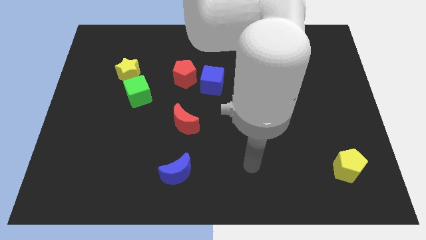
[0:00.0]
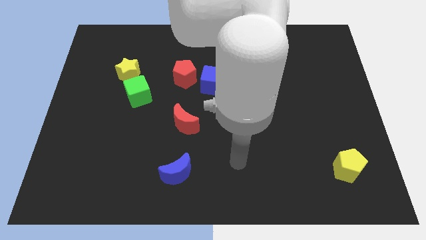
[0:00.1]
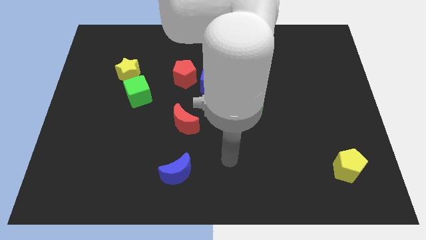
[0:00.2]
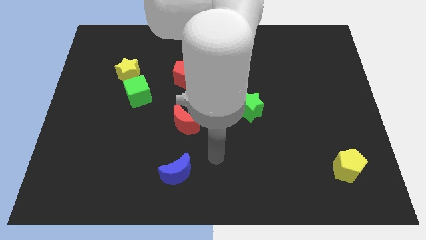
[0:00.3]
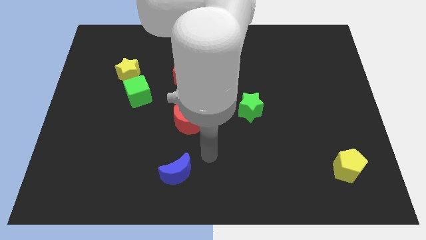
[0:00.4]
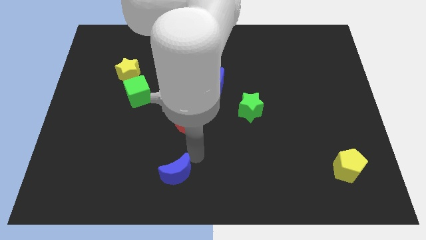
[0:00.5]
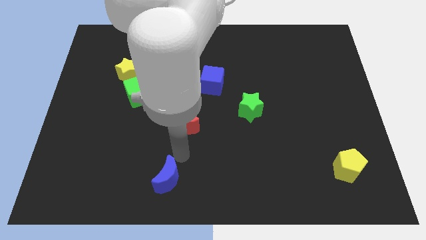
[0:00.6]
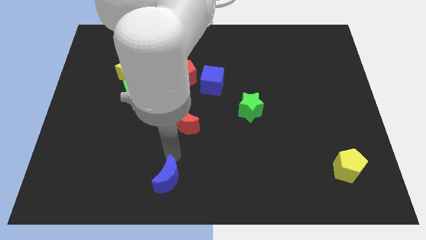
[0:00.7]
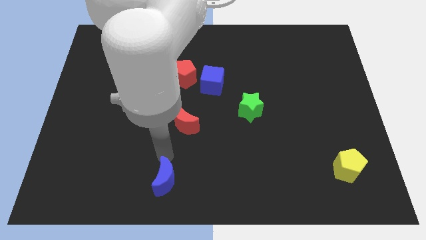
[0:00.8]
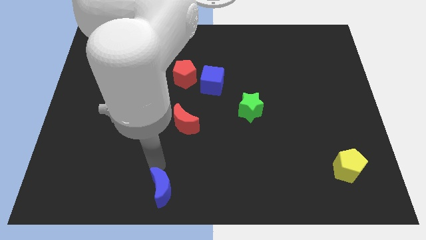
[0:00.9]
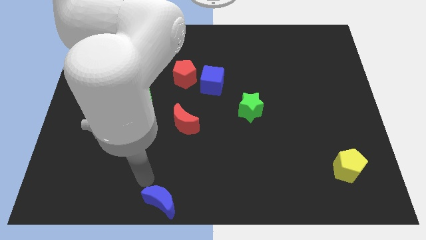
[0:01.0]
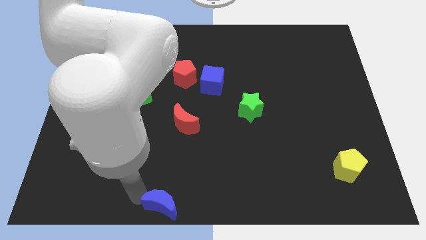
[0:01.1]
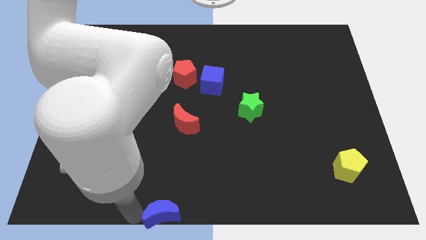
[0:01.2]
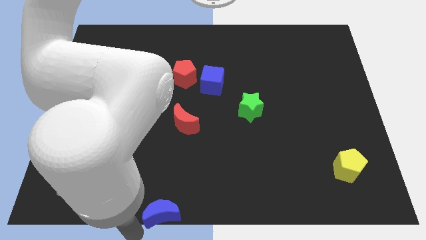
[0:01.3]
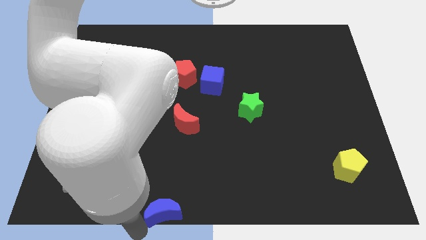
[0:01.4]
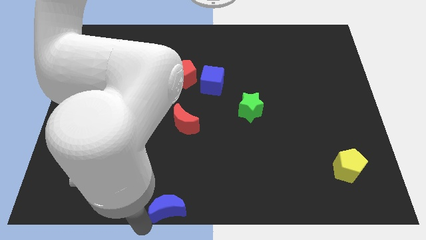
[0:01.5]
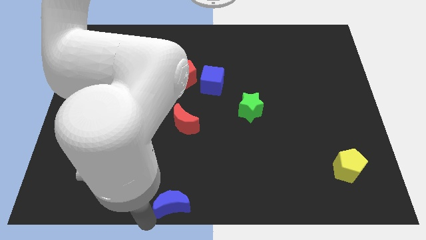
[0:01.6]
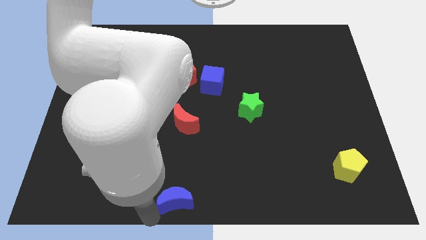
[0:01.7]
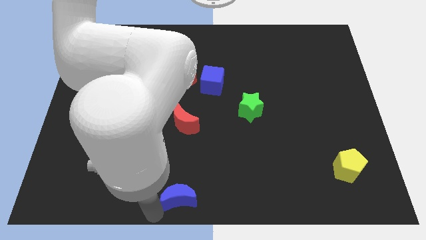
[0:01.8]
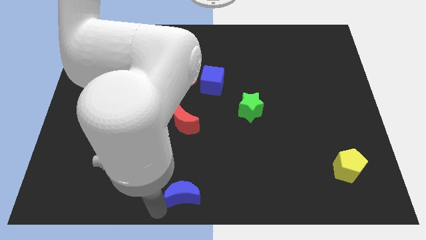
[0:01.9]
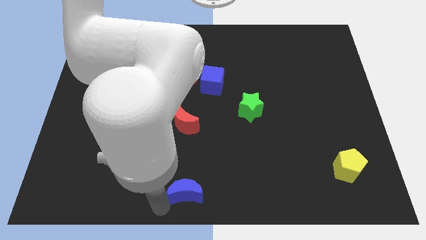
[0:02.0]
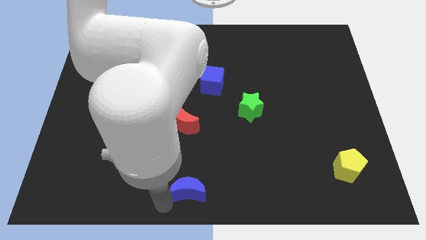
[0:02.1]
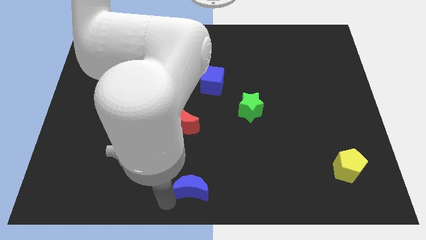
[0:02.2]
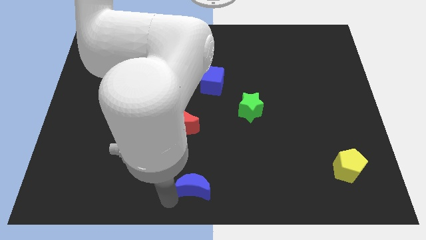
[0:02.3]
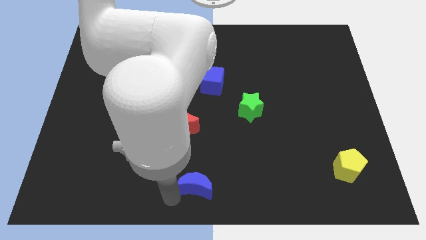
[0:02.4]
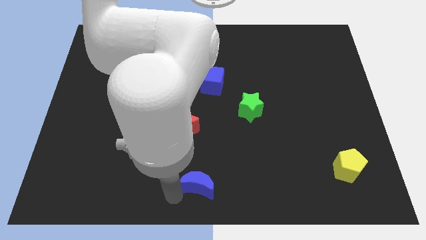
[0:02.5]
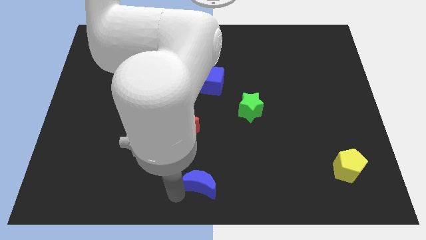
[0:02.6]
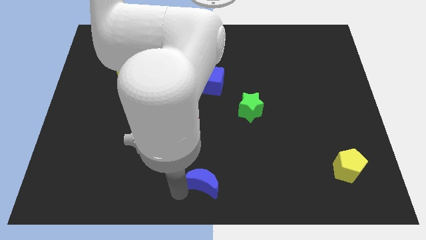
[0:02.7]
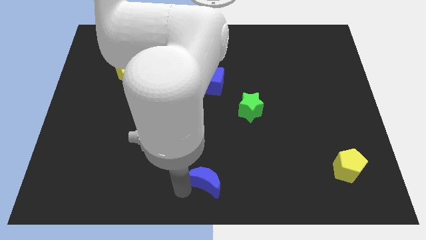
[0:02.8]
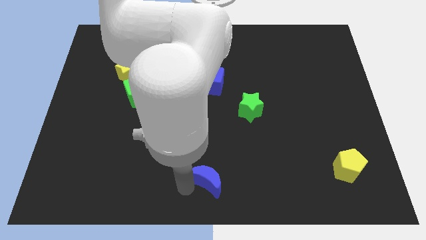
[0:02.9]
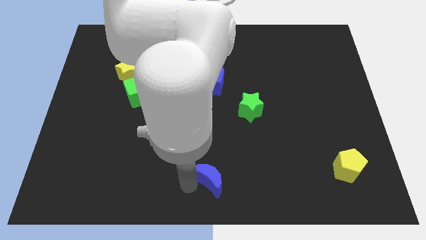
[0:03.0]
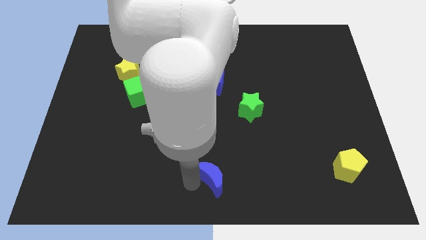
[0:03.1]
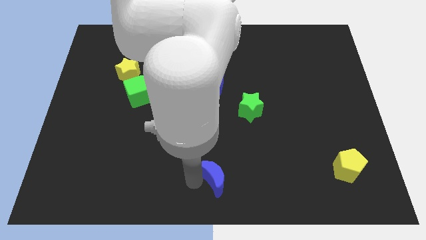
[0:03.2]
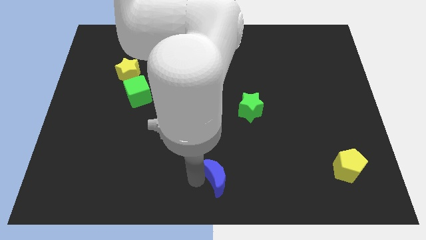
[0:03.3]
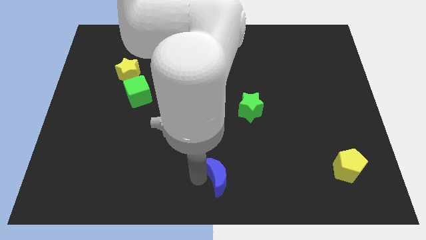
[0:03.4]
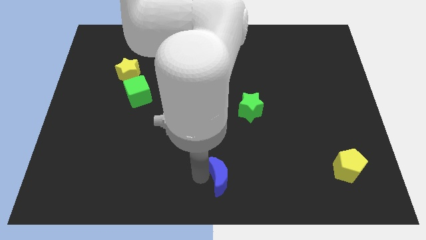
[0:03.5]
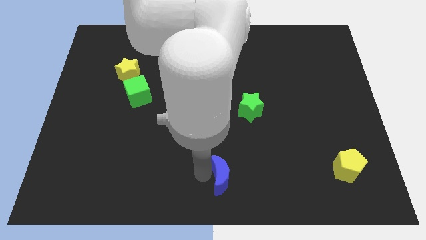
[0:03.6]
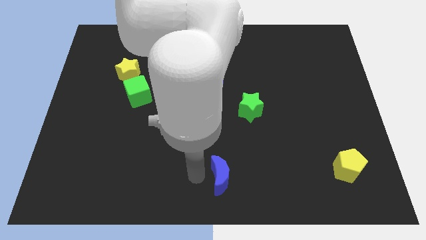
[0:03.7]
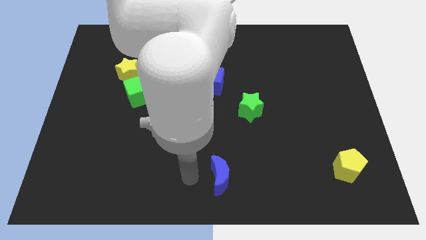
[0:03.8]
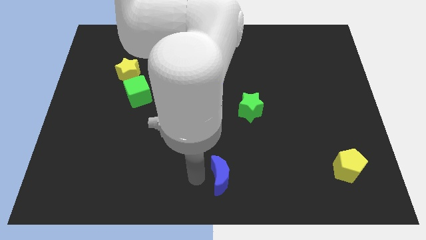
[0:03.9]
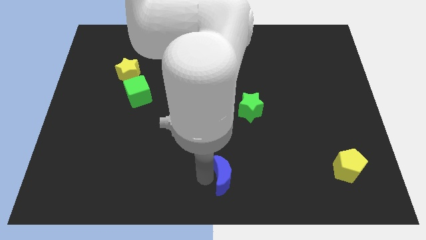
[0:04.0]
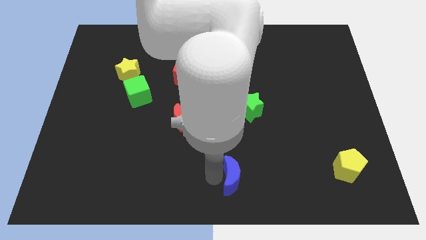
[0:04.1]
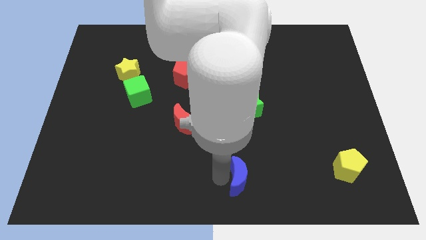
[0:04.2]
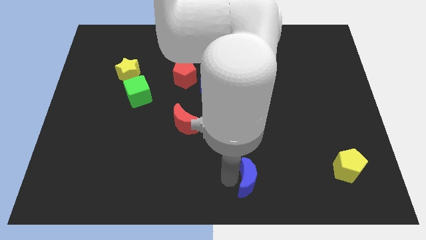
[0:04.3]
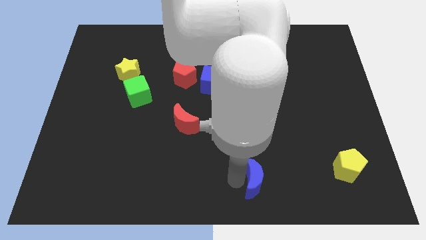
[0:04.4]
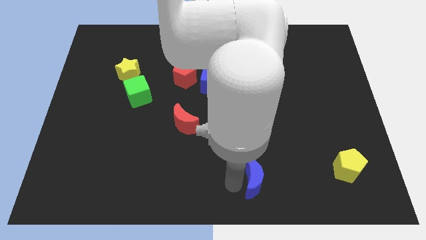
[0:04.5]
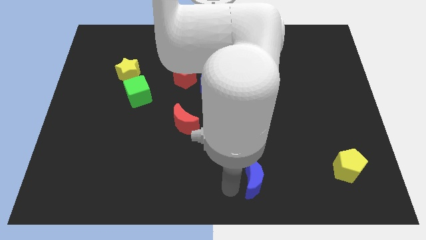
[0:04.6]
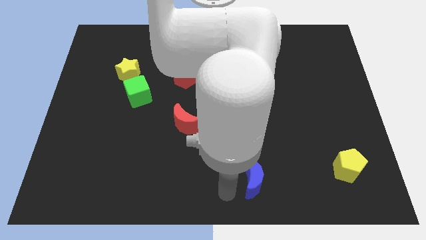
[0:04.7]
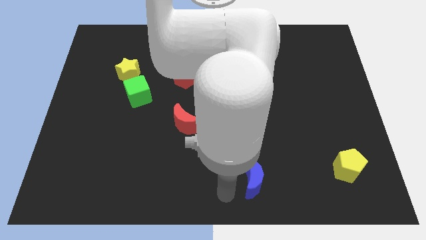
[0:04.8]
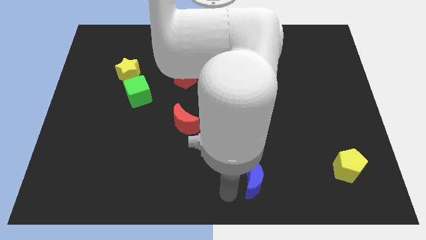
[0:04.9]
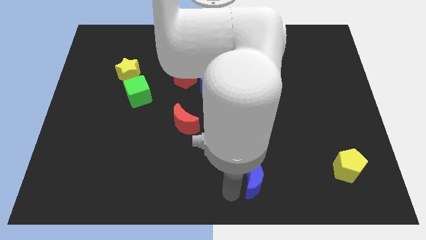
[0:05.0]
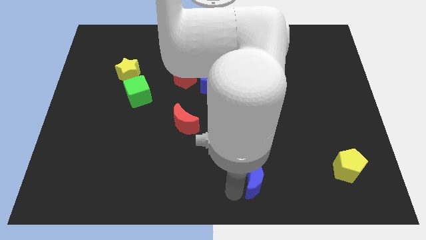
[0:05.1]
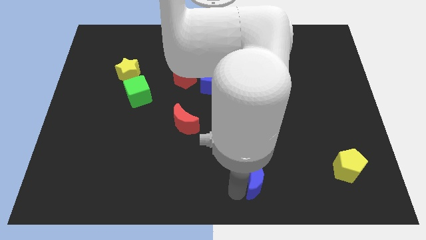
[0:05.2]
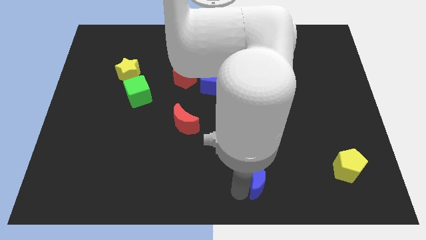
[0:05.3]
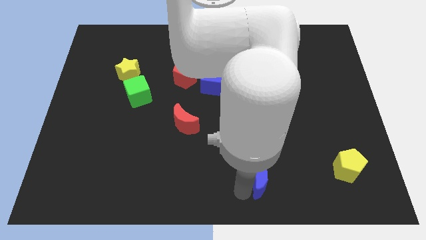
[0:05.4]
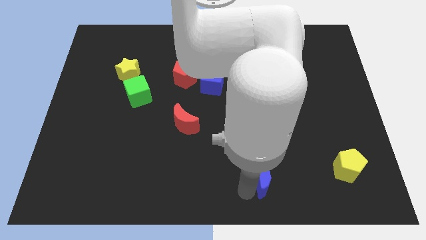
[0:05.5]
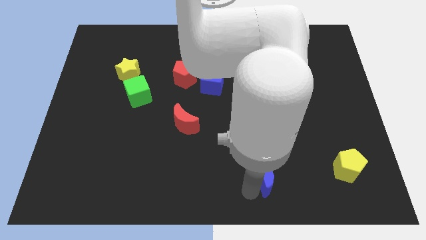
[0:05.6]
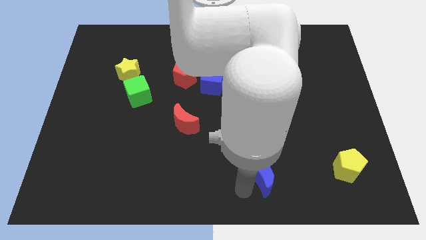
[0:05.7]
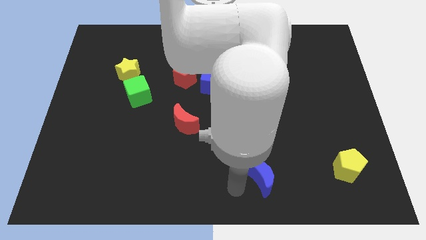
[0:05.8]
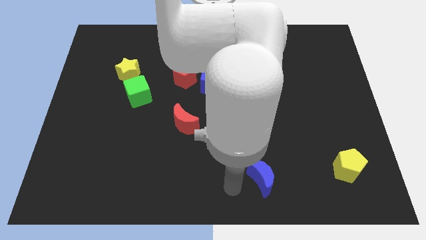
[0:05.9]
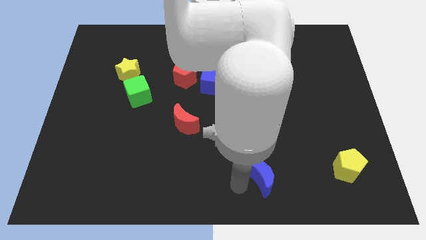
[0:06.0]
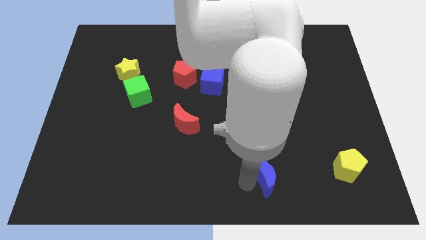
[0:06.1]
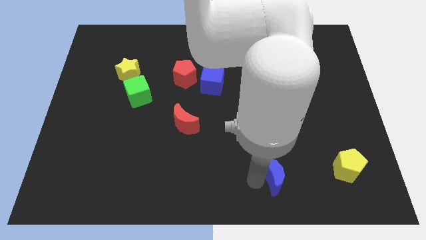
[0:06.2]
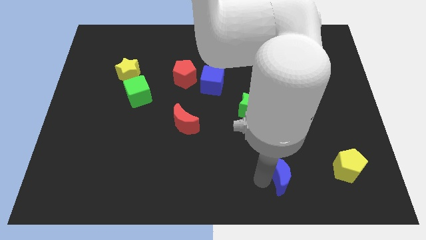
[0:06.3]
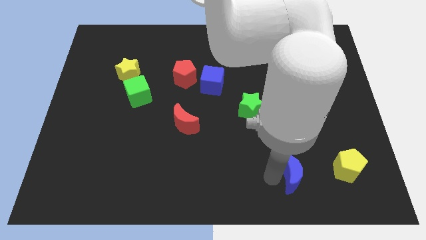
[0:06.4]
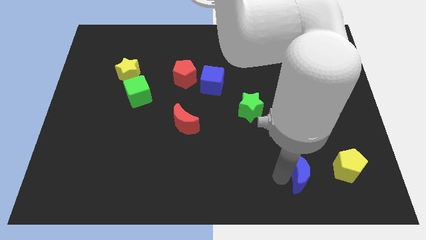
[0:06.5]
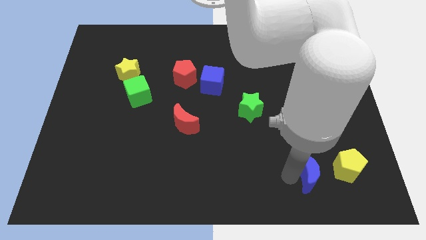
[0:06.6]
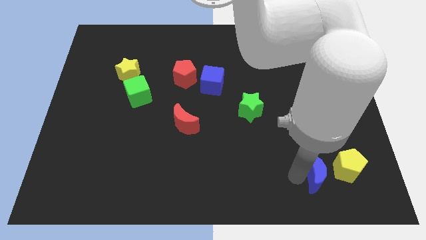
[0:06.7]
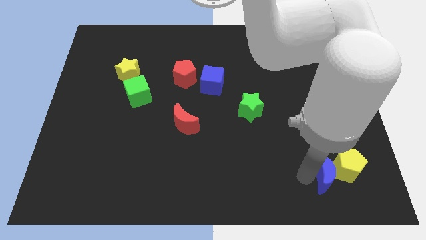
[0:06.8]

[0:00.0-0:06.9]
push the blue moon towards the yellow pentagon
